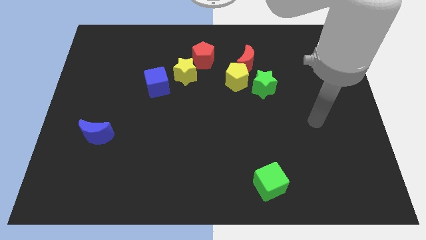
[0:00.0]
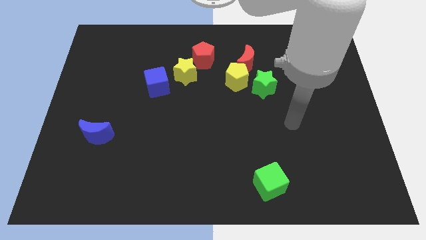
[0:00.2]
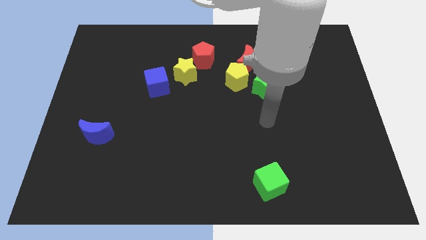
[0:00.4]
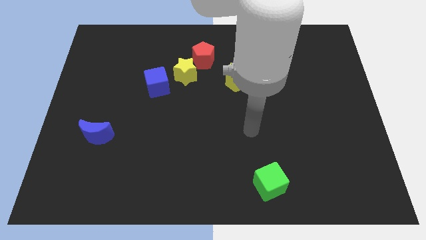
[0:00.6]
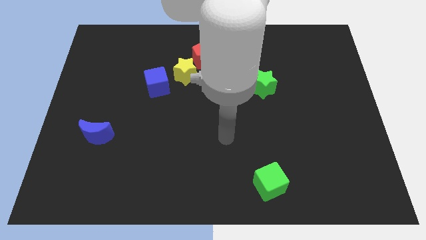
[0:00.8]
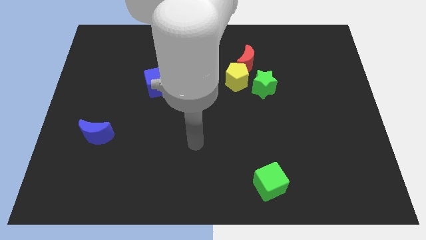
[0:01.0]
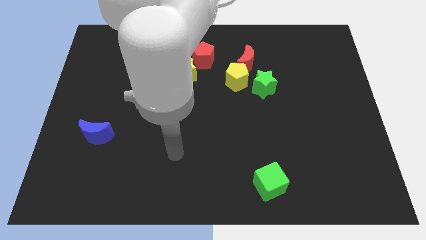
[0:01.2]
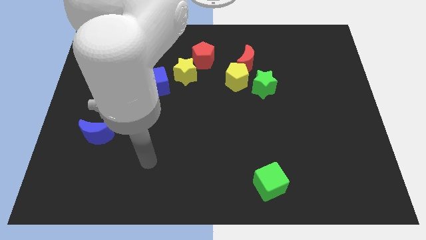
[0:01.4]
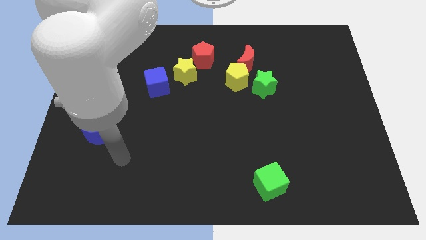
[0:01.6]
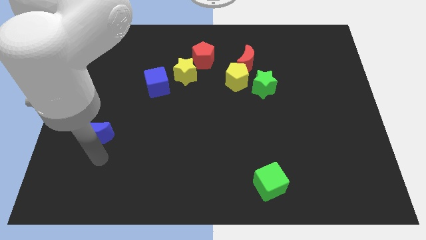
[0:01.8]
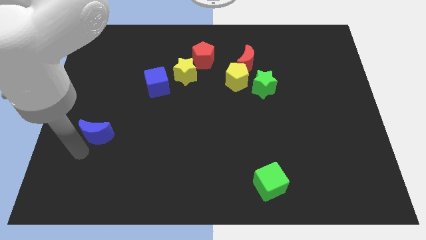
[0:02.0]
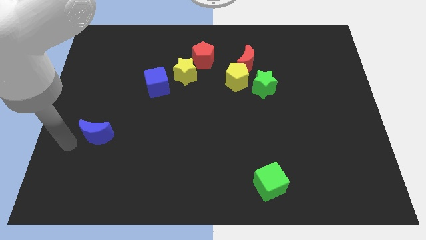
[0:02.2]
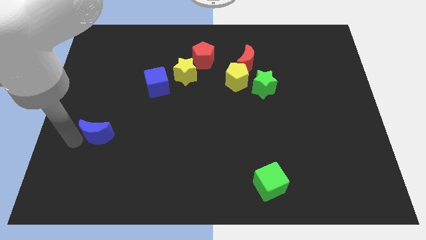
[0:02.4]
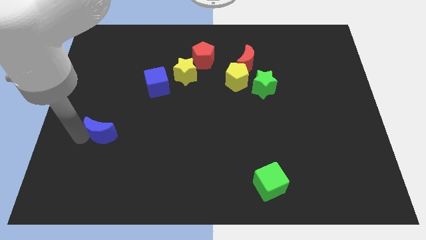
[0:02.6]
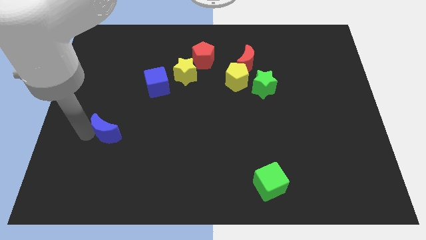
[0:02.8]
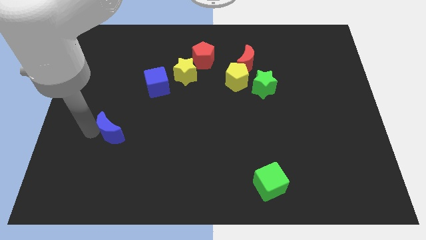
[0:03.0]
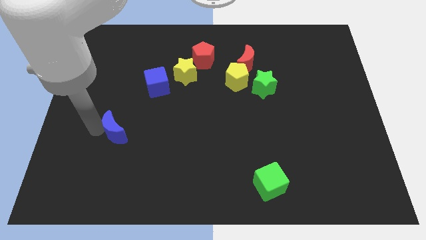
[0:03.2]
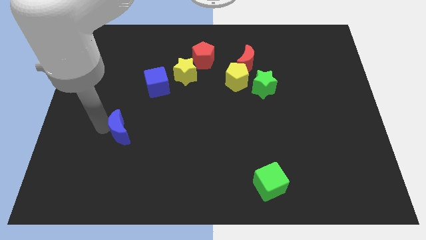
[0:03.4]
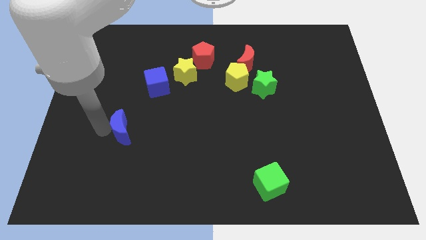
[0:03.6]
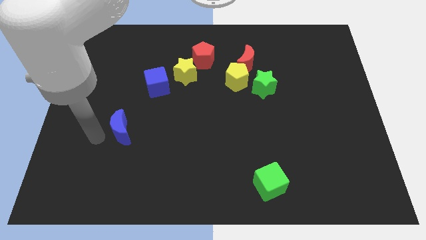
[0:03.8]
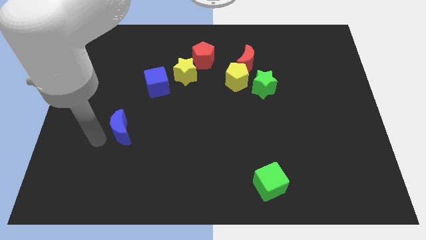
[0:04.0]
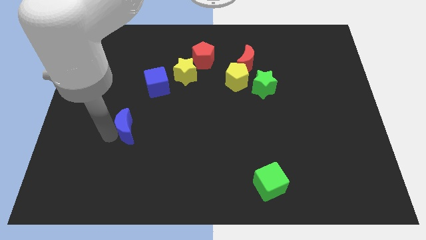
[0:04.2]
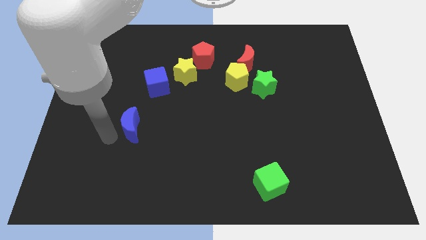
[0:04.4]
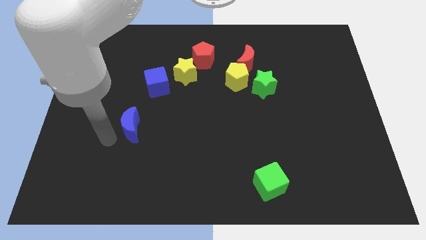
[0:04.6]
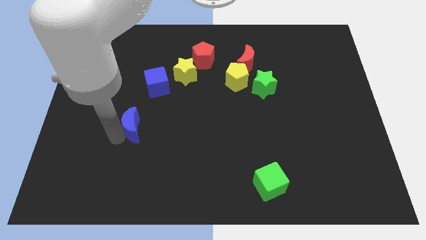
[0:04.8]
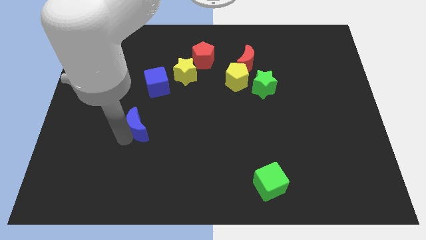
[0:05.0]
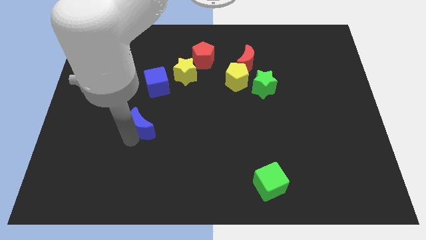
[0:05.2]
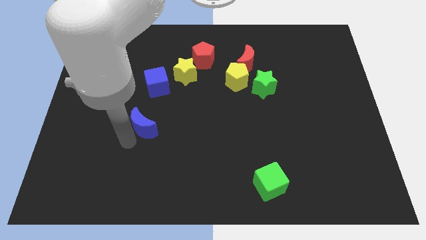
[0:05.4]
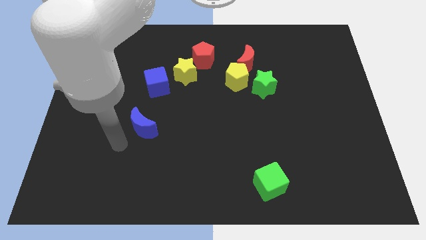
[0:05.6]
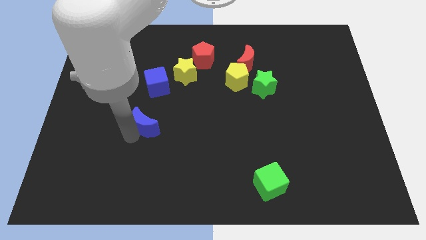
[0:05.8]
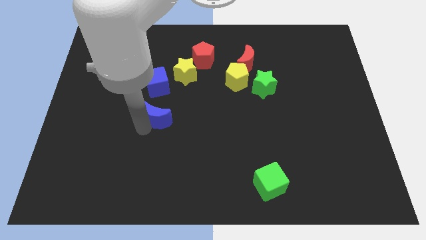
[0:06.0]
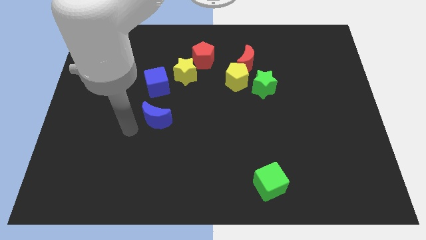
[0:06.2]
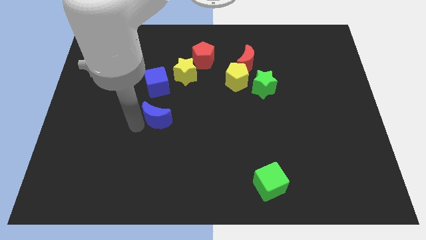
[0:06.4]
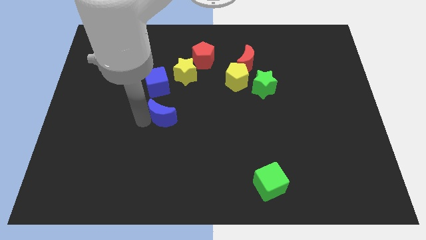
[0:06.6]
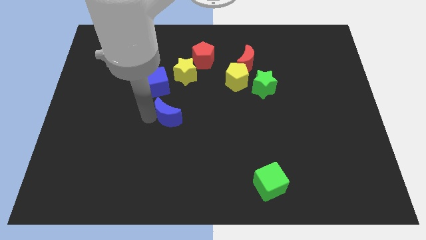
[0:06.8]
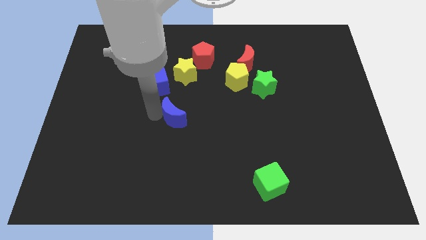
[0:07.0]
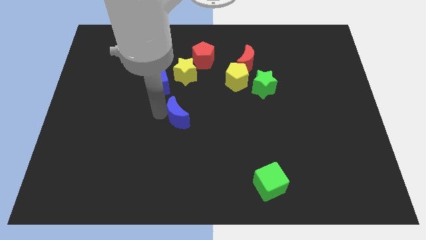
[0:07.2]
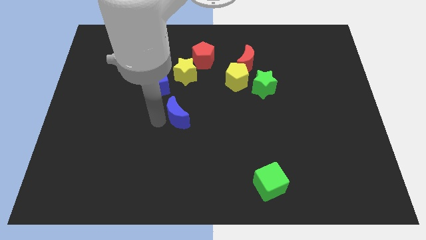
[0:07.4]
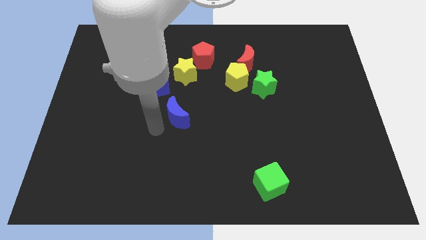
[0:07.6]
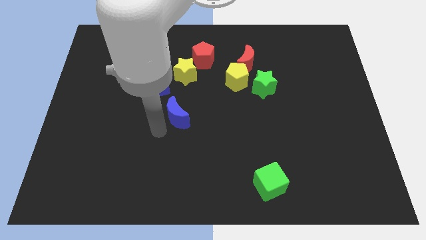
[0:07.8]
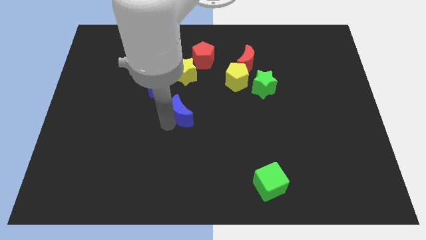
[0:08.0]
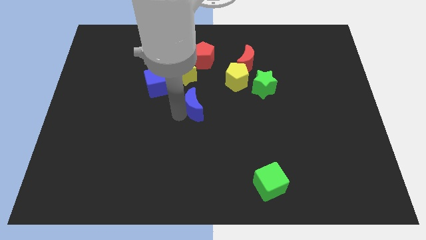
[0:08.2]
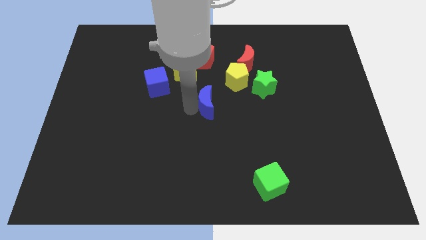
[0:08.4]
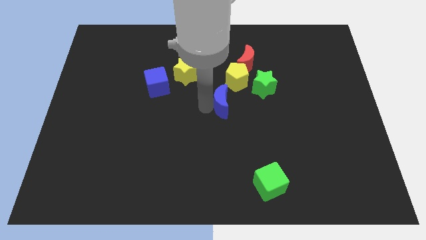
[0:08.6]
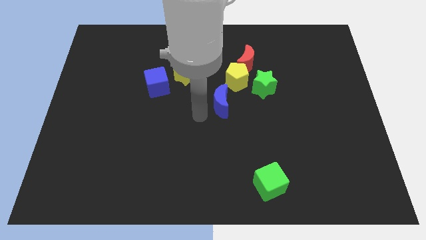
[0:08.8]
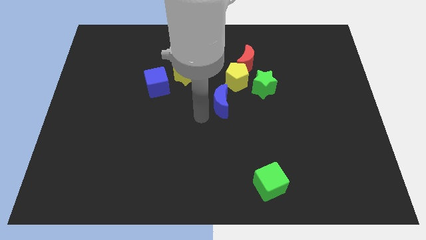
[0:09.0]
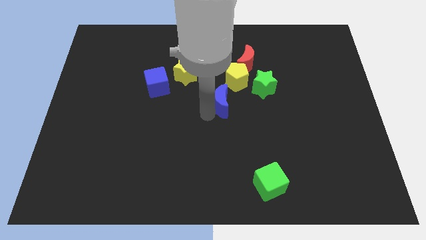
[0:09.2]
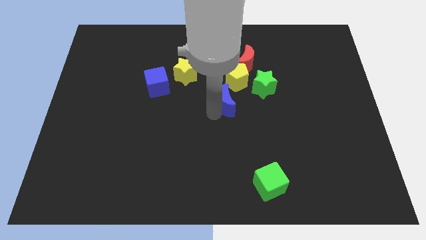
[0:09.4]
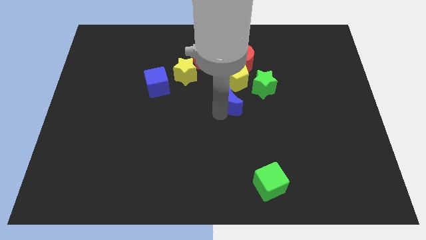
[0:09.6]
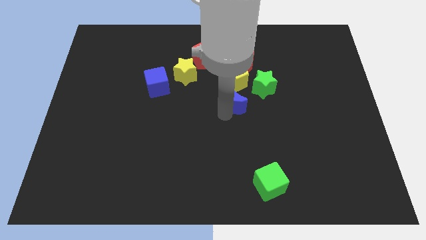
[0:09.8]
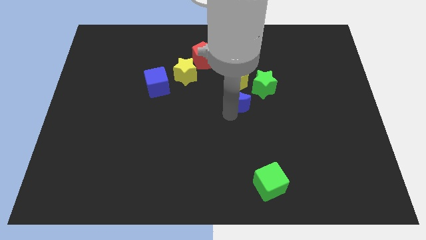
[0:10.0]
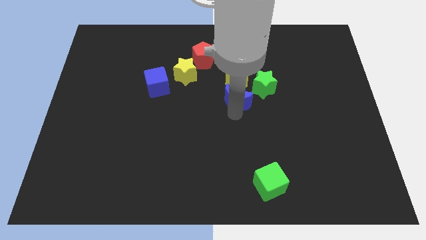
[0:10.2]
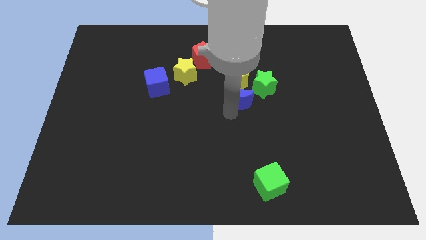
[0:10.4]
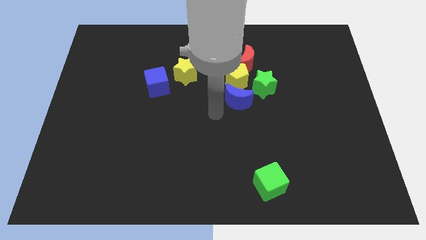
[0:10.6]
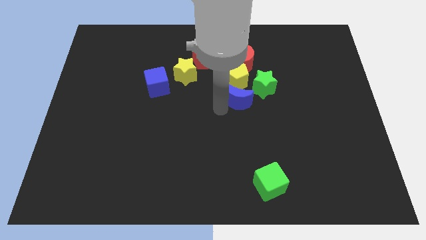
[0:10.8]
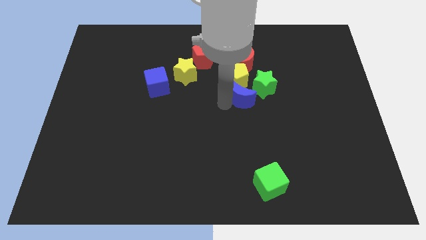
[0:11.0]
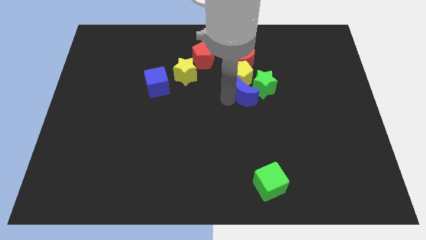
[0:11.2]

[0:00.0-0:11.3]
move the blue moon towards the green star
